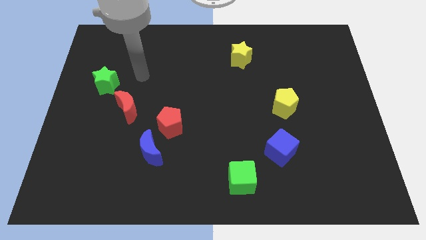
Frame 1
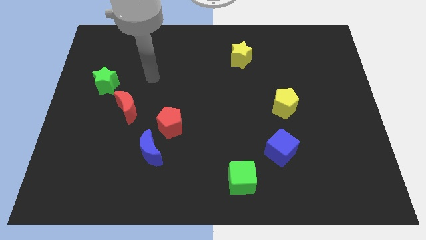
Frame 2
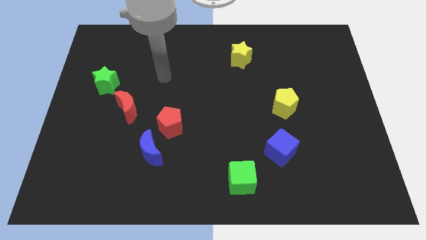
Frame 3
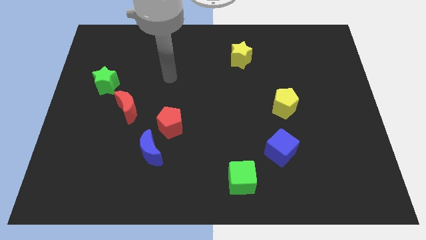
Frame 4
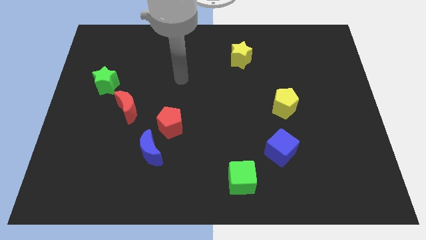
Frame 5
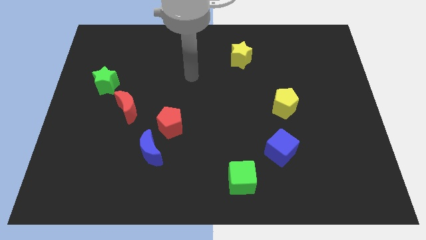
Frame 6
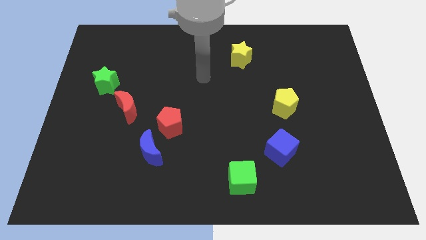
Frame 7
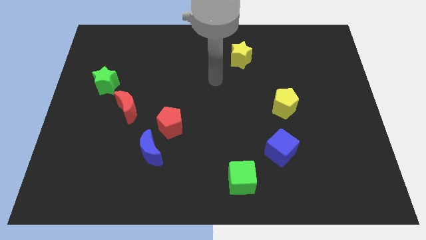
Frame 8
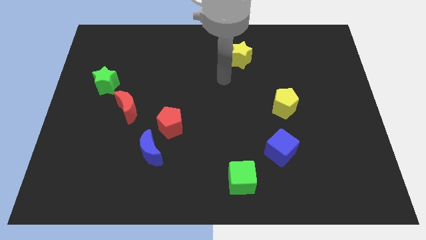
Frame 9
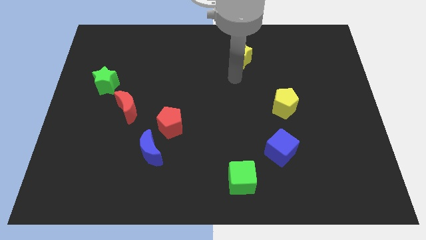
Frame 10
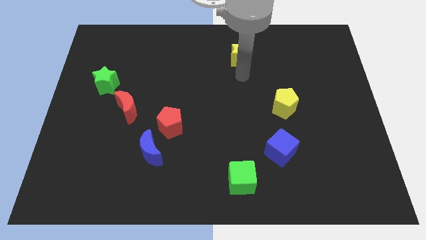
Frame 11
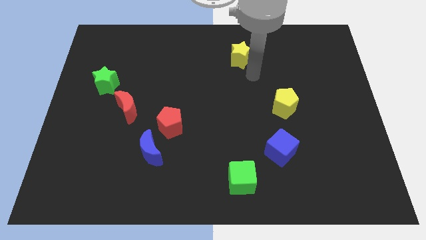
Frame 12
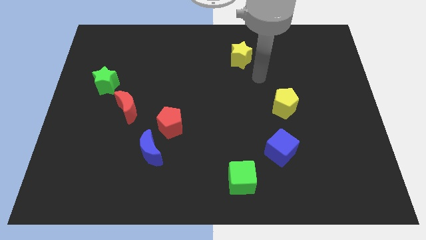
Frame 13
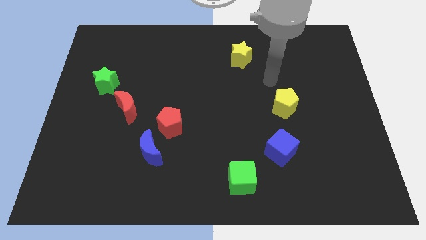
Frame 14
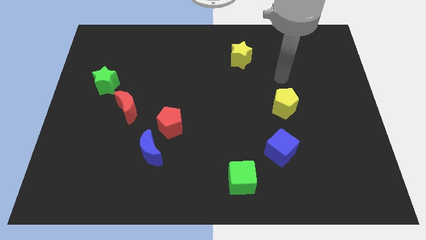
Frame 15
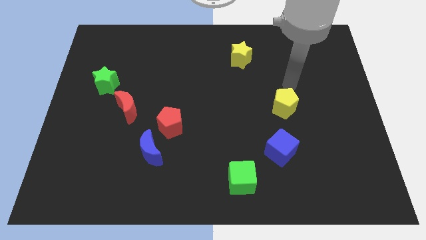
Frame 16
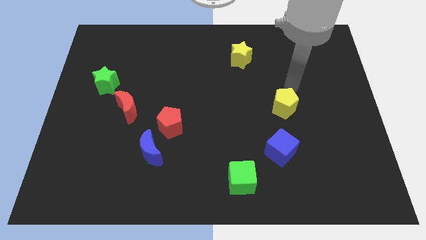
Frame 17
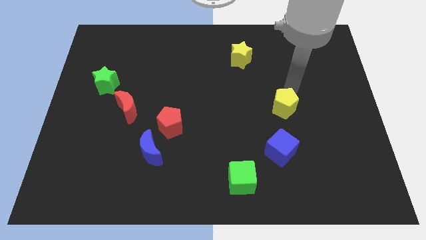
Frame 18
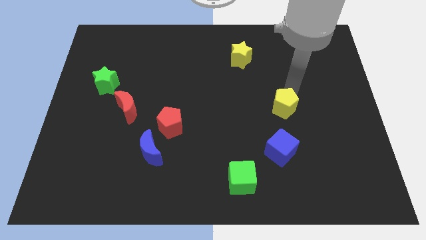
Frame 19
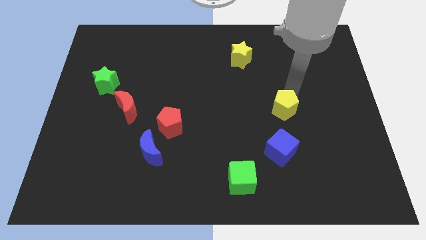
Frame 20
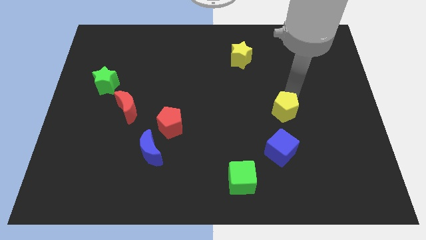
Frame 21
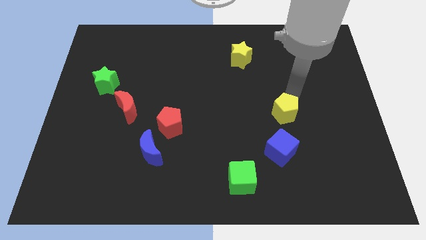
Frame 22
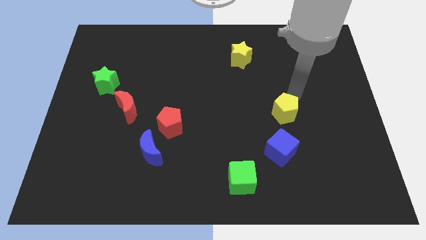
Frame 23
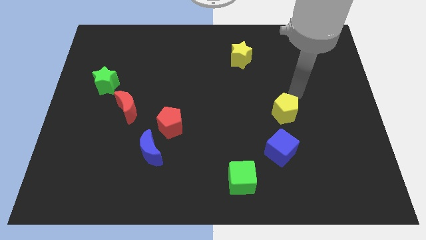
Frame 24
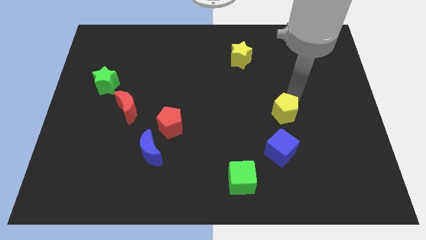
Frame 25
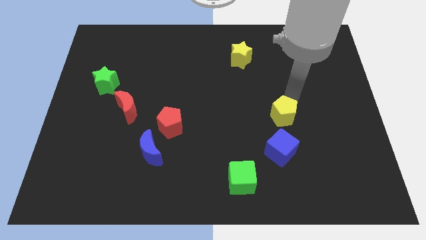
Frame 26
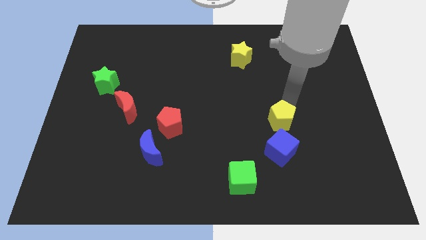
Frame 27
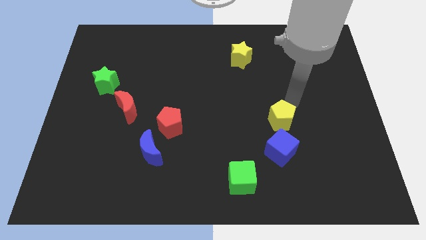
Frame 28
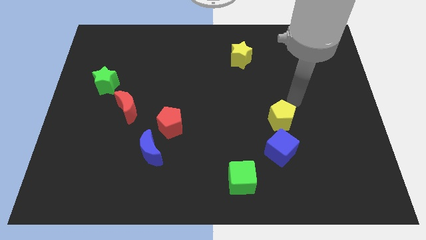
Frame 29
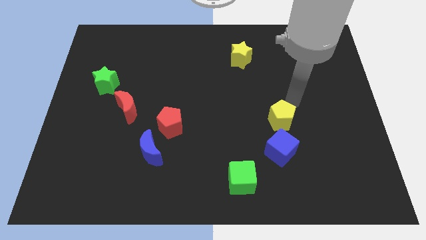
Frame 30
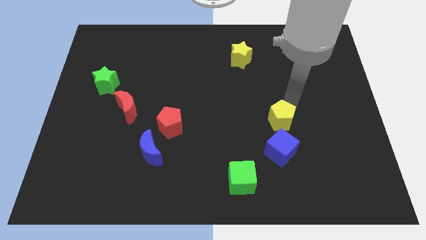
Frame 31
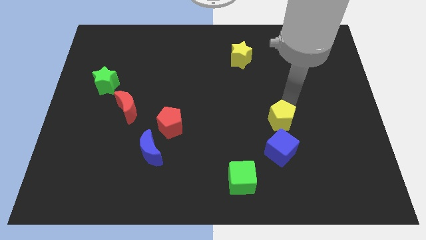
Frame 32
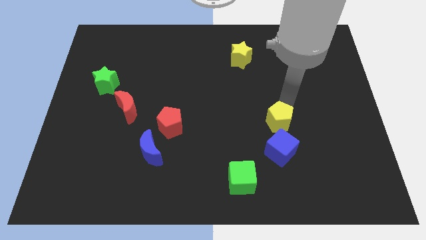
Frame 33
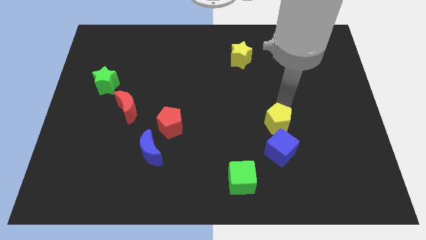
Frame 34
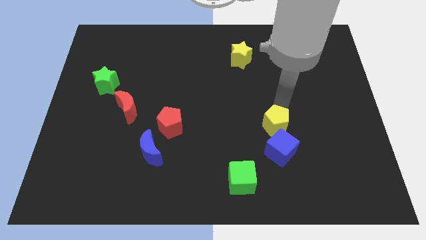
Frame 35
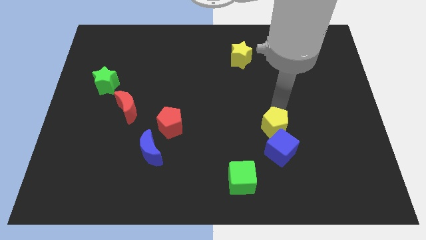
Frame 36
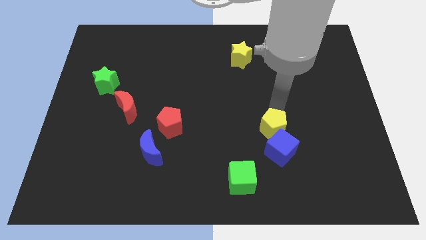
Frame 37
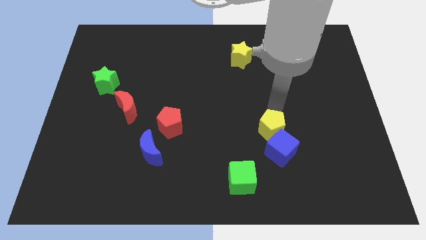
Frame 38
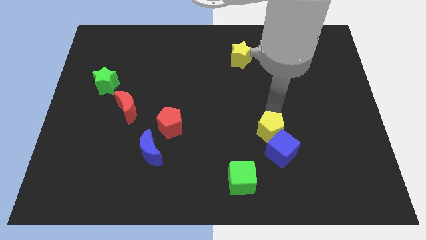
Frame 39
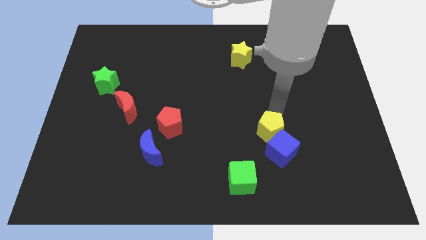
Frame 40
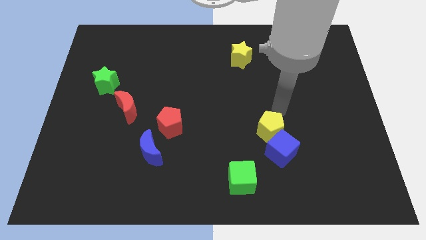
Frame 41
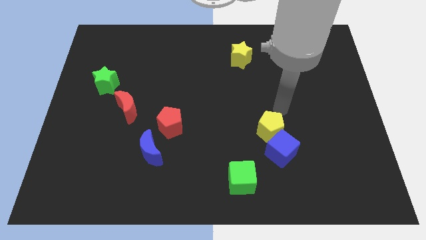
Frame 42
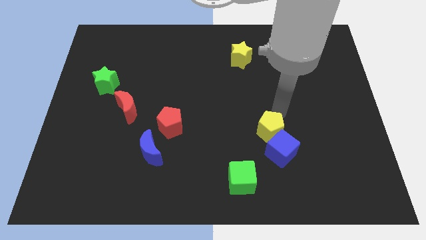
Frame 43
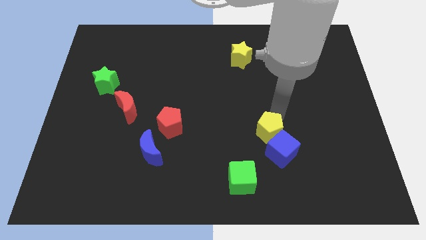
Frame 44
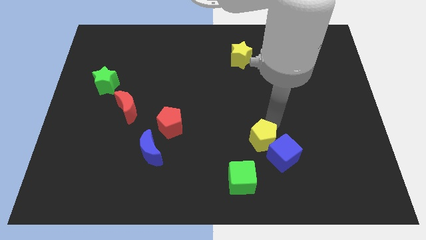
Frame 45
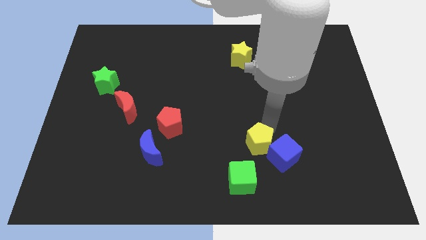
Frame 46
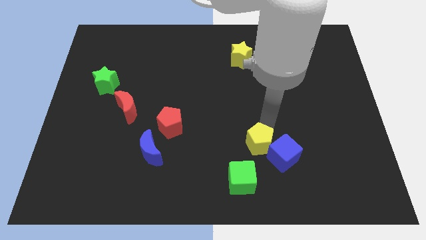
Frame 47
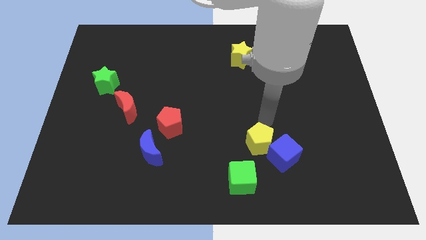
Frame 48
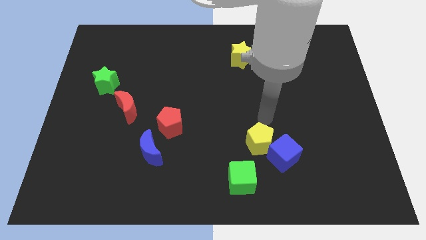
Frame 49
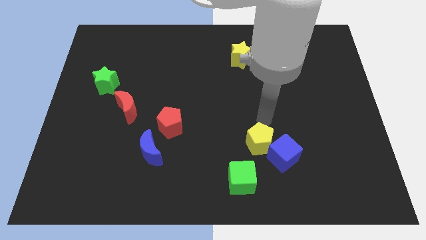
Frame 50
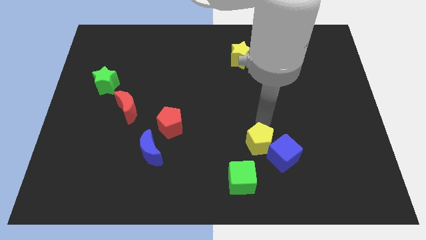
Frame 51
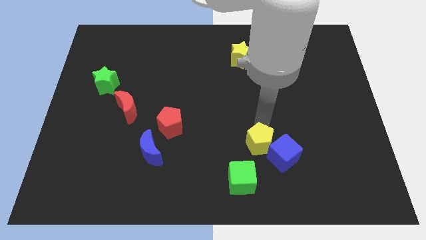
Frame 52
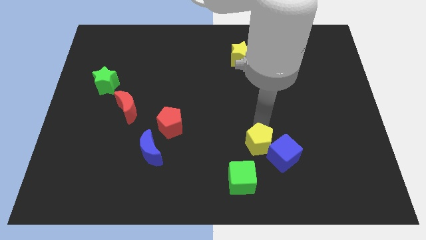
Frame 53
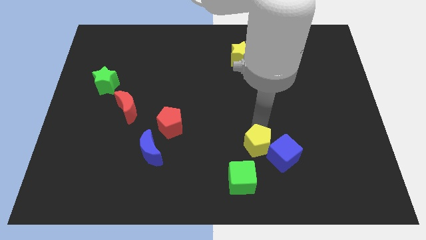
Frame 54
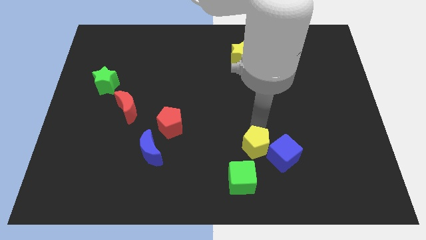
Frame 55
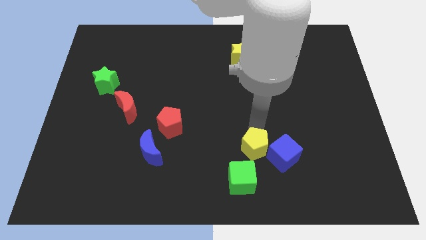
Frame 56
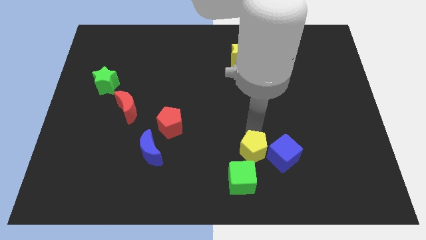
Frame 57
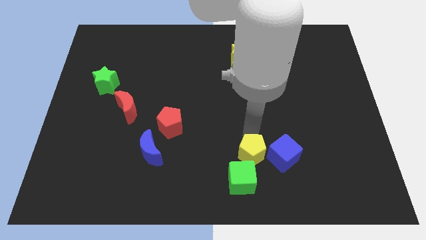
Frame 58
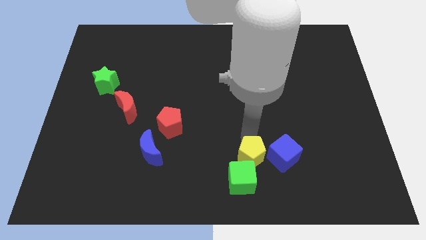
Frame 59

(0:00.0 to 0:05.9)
move the yellow pentagon towards the green cube

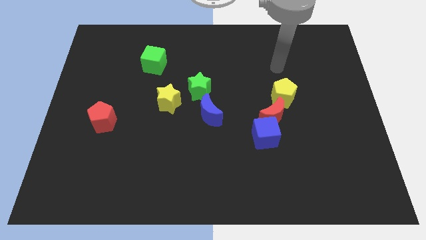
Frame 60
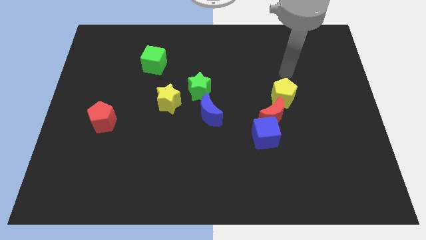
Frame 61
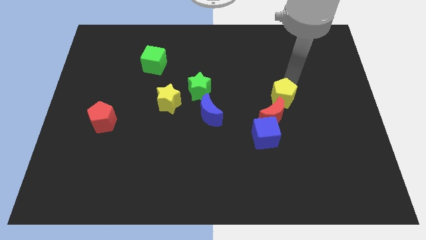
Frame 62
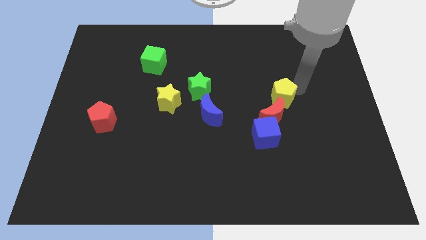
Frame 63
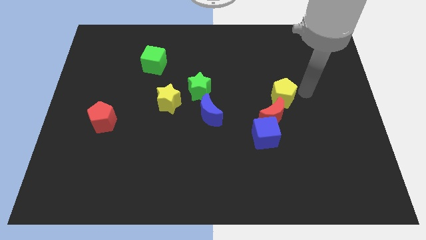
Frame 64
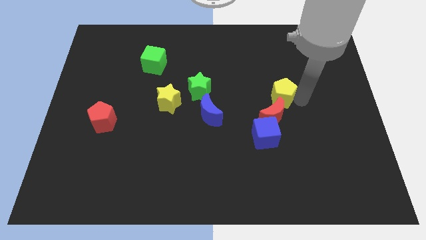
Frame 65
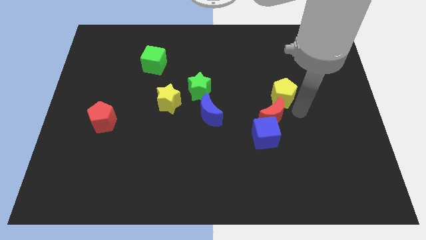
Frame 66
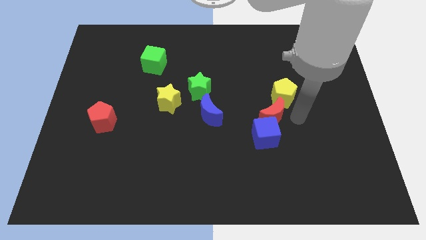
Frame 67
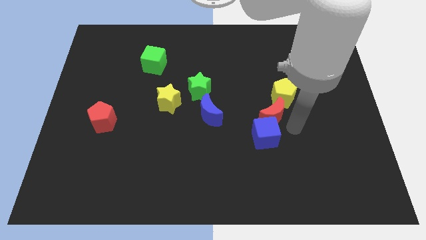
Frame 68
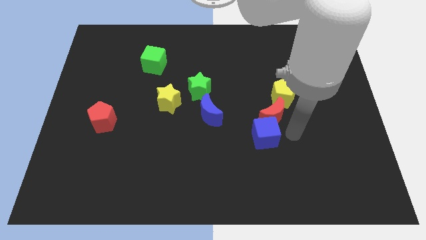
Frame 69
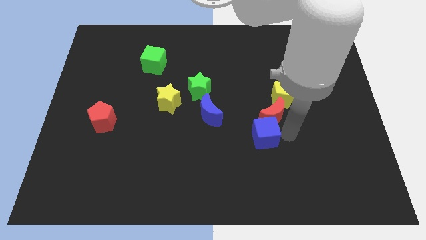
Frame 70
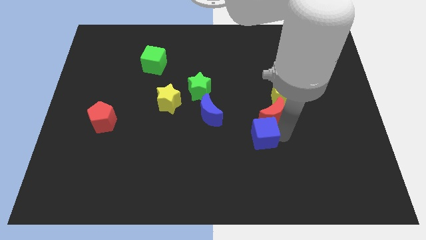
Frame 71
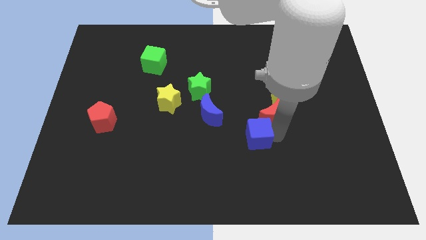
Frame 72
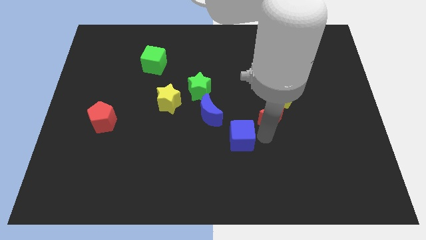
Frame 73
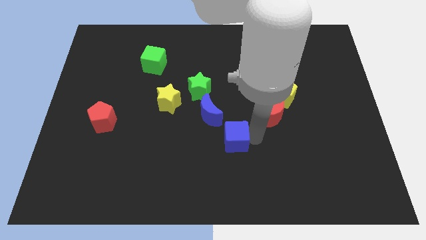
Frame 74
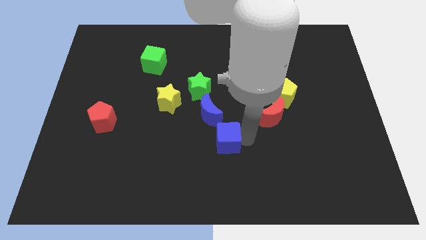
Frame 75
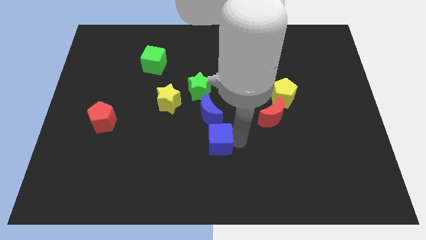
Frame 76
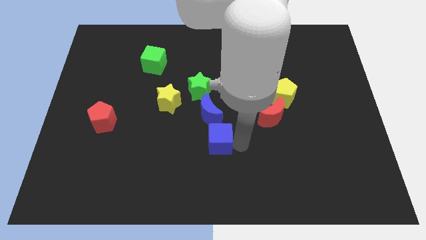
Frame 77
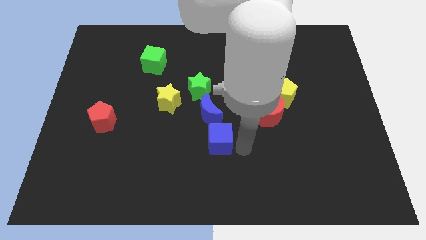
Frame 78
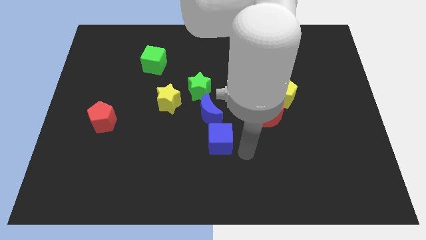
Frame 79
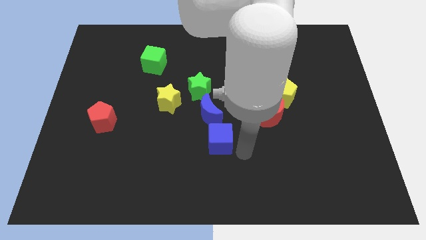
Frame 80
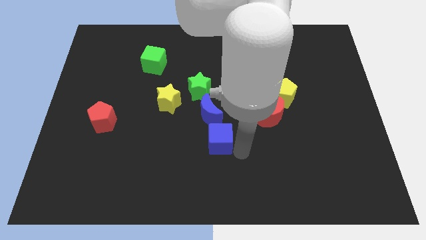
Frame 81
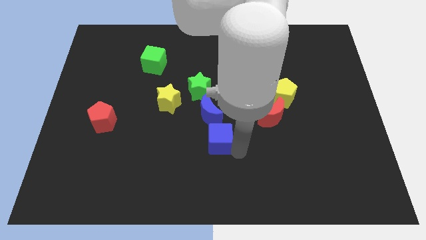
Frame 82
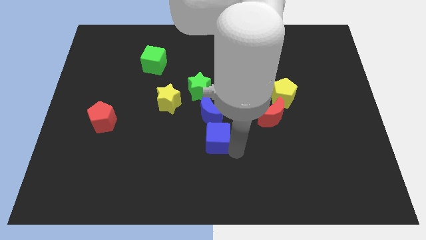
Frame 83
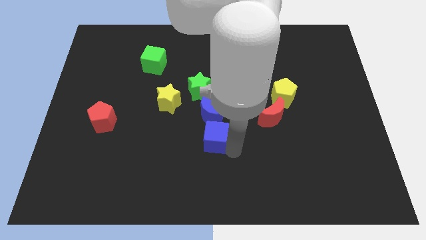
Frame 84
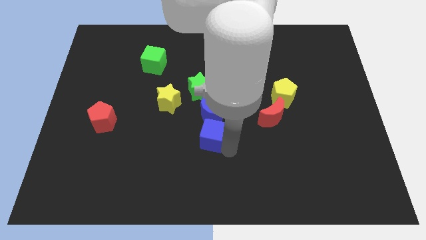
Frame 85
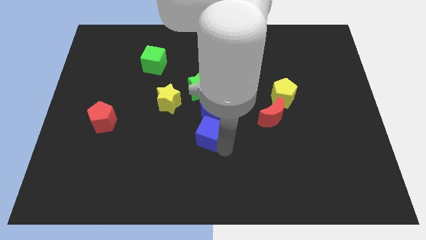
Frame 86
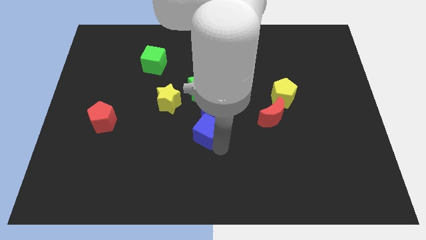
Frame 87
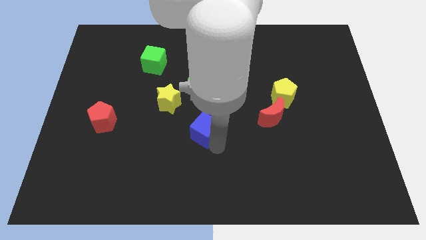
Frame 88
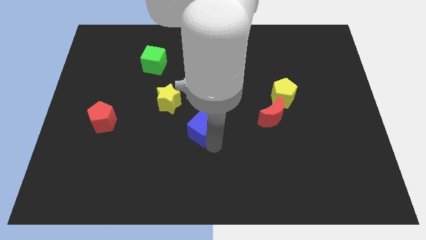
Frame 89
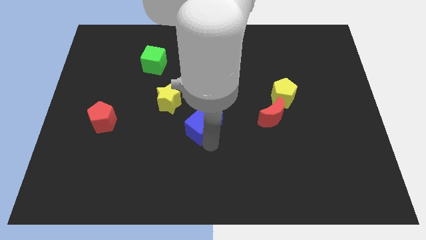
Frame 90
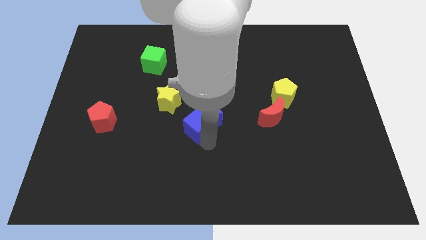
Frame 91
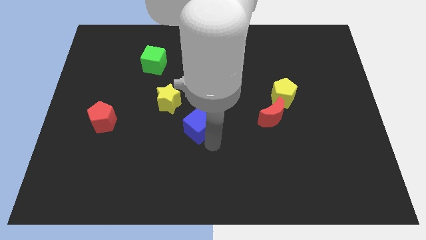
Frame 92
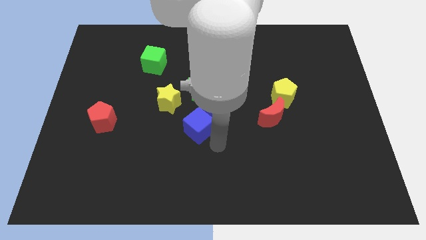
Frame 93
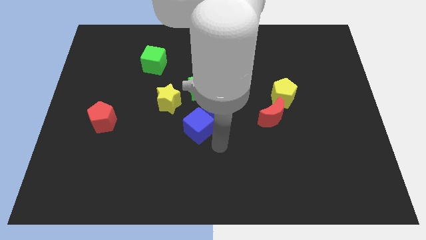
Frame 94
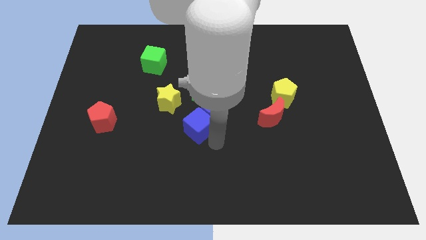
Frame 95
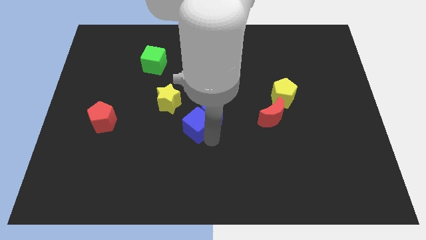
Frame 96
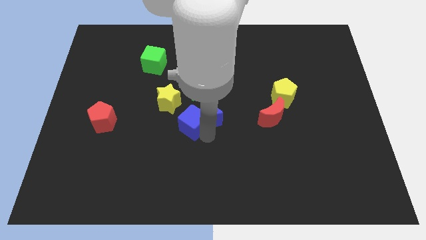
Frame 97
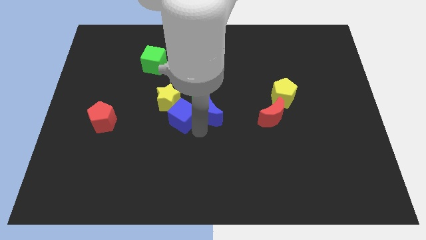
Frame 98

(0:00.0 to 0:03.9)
slide the blue cube to the yellow star
